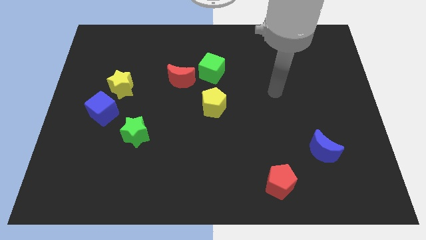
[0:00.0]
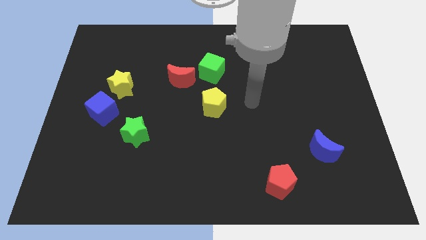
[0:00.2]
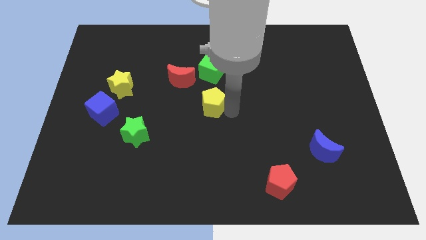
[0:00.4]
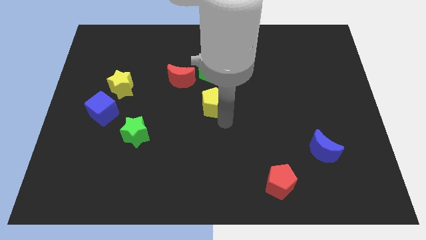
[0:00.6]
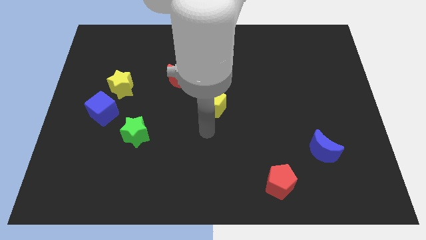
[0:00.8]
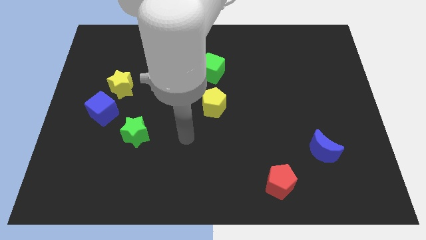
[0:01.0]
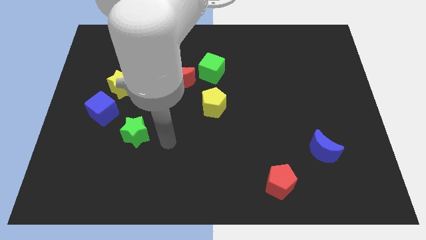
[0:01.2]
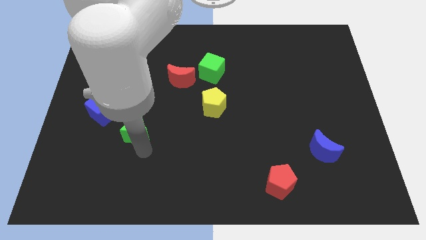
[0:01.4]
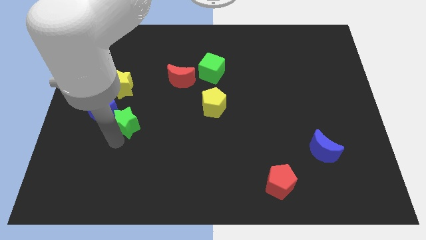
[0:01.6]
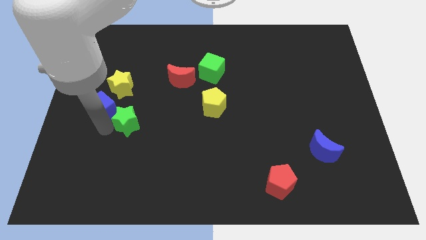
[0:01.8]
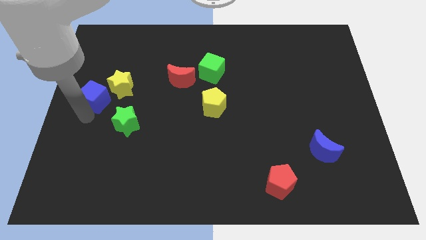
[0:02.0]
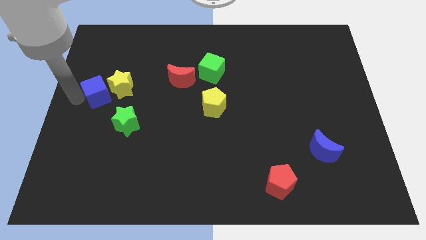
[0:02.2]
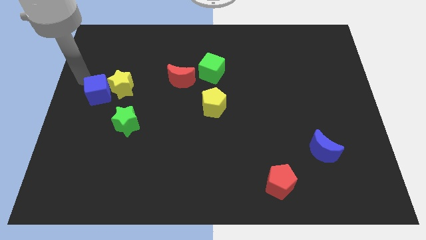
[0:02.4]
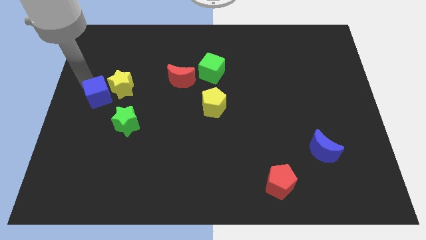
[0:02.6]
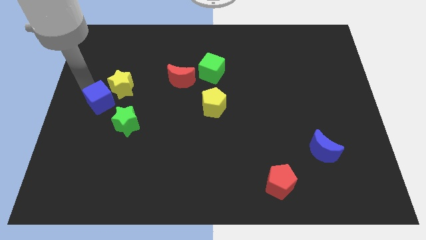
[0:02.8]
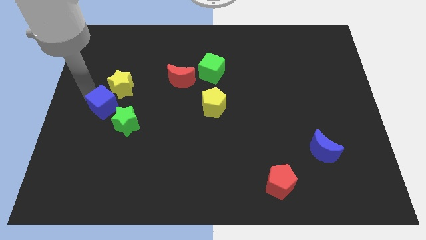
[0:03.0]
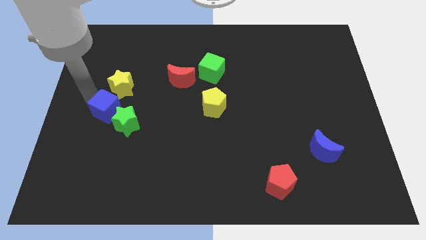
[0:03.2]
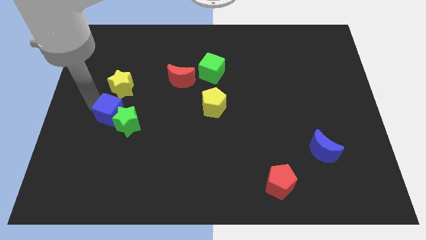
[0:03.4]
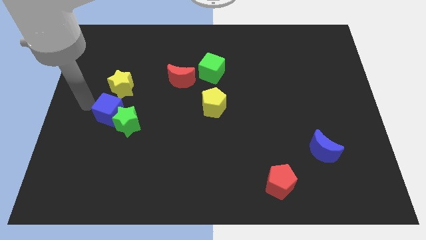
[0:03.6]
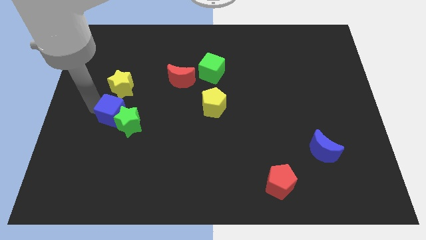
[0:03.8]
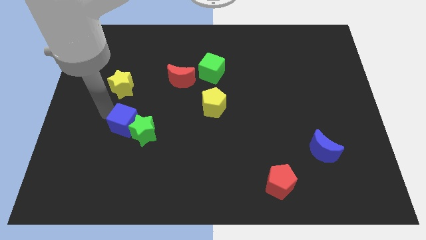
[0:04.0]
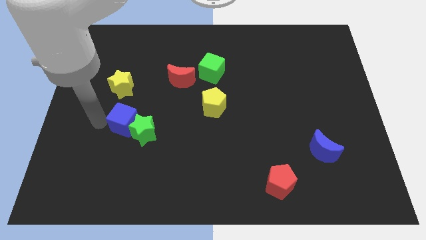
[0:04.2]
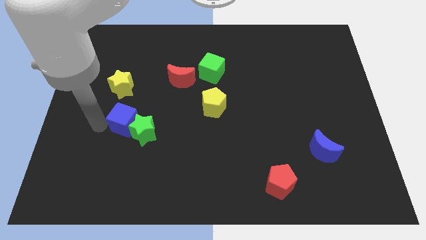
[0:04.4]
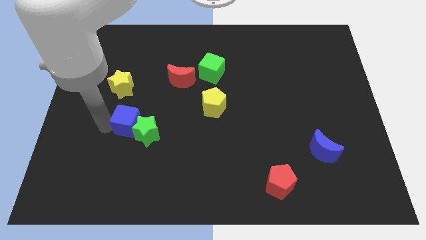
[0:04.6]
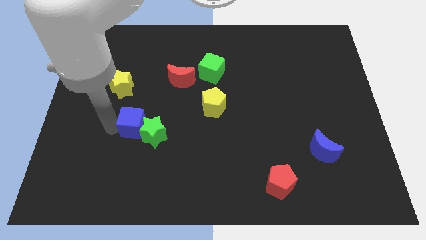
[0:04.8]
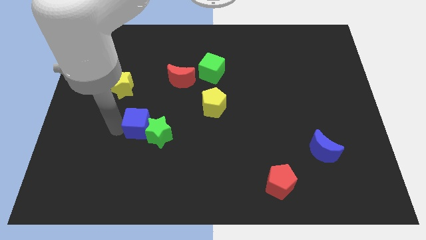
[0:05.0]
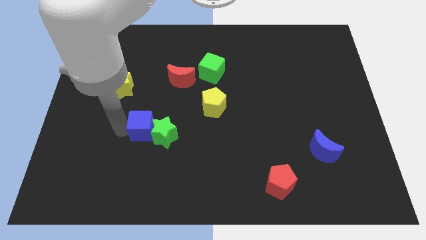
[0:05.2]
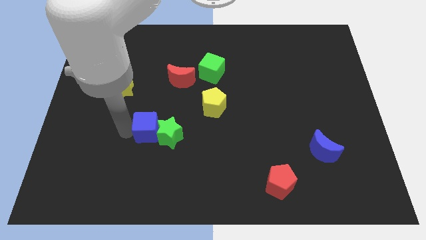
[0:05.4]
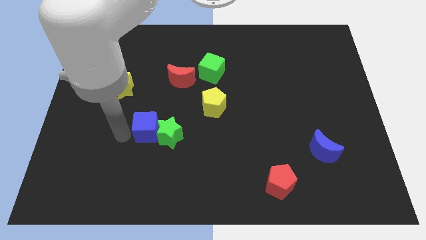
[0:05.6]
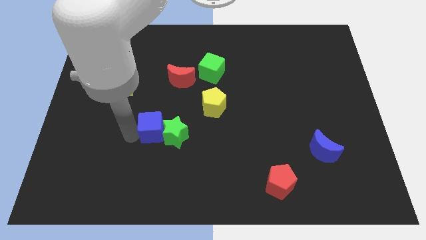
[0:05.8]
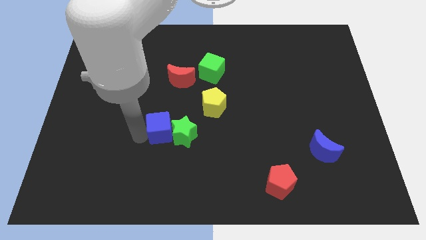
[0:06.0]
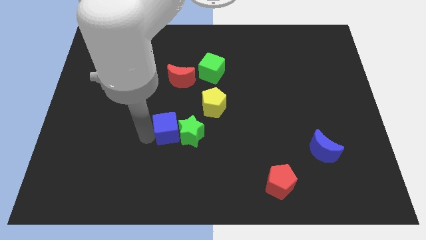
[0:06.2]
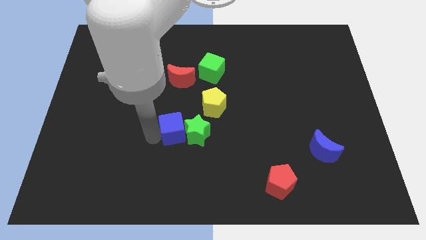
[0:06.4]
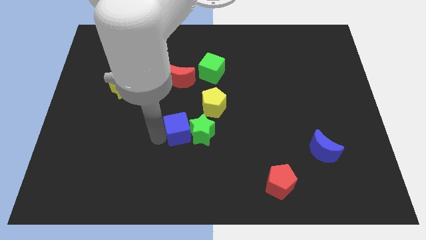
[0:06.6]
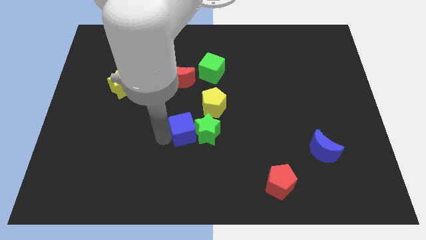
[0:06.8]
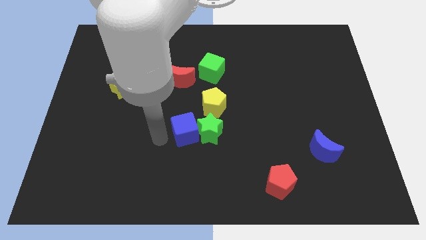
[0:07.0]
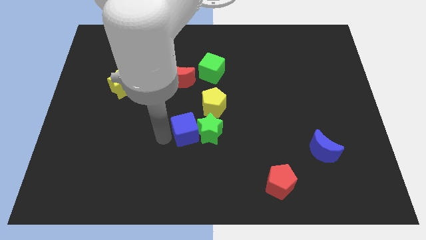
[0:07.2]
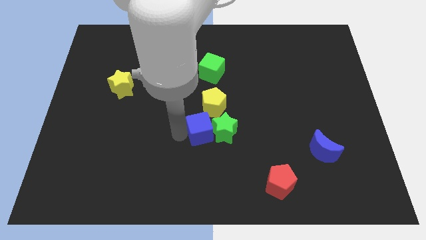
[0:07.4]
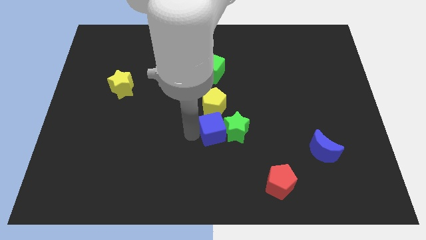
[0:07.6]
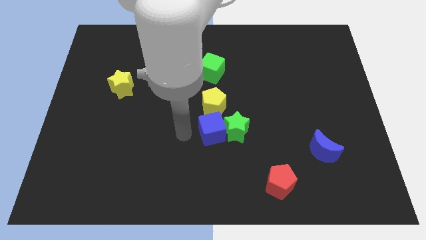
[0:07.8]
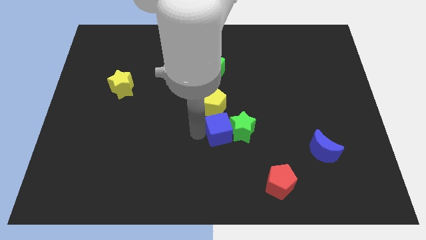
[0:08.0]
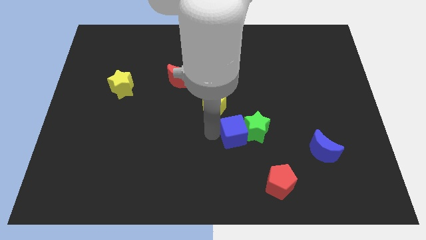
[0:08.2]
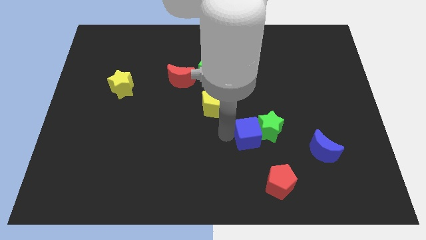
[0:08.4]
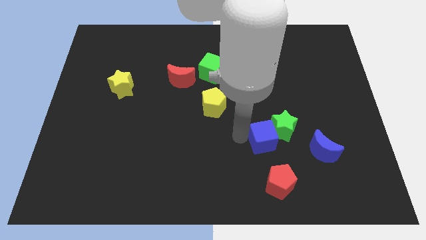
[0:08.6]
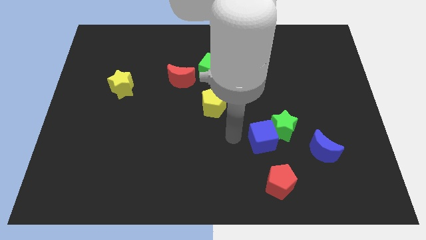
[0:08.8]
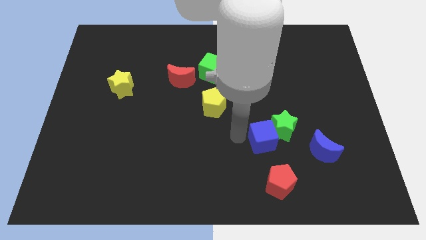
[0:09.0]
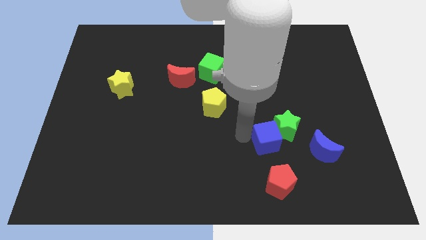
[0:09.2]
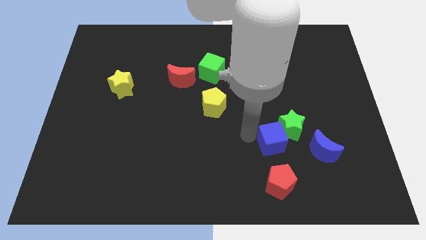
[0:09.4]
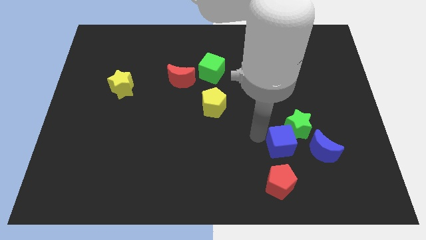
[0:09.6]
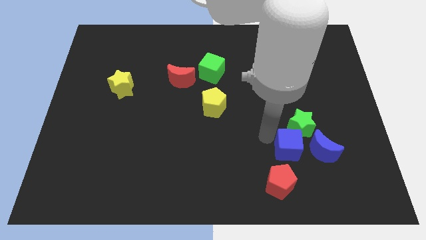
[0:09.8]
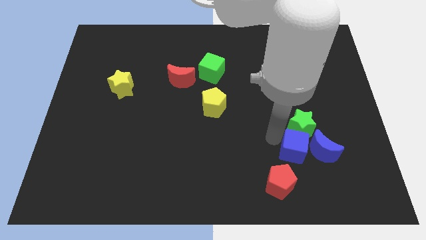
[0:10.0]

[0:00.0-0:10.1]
put the blue cube to the blue moon
